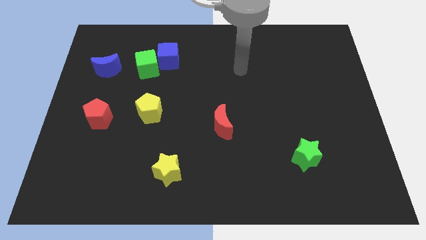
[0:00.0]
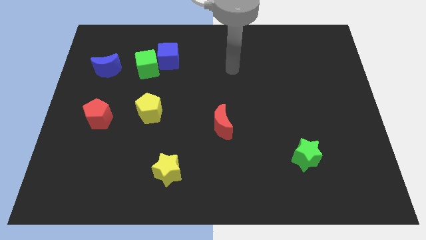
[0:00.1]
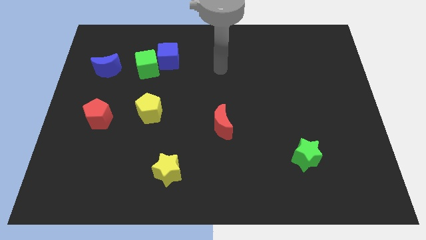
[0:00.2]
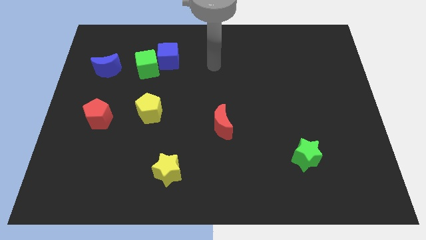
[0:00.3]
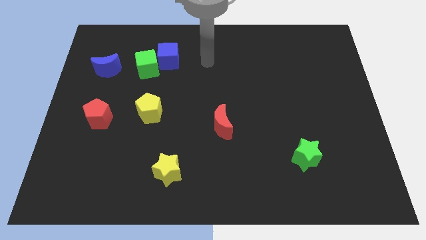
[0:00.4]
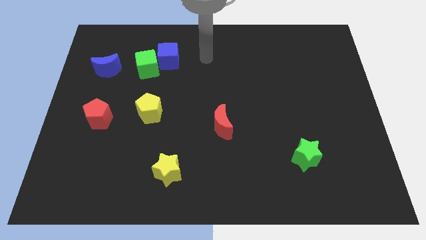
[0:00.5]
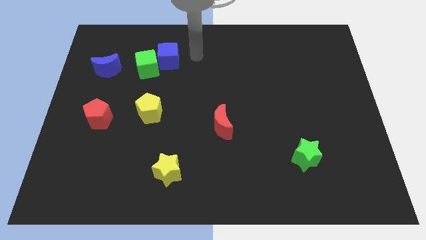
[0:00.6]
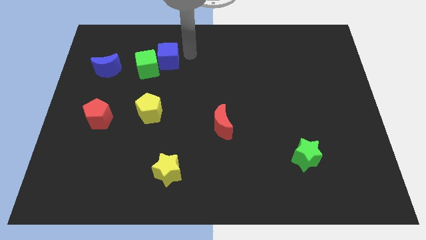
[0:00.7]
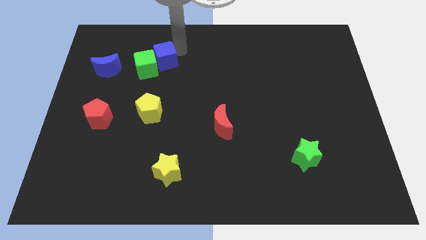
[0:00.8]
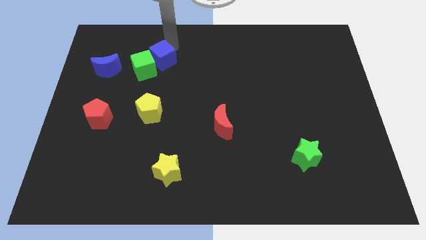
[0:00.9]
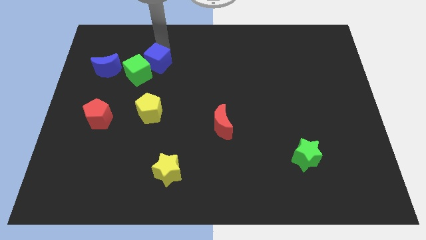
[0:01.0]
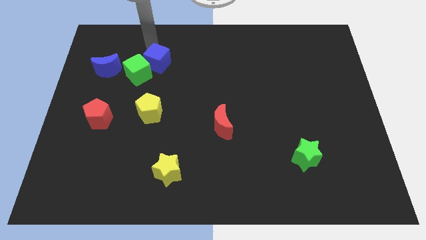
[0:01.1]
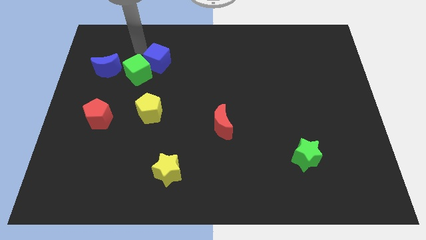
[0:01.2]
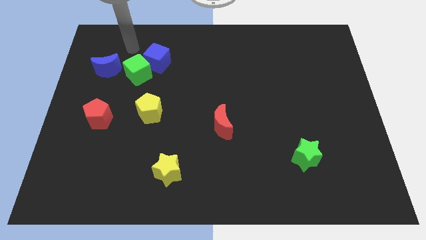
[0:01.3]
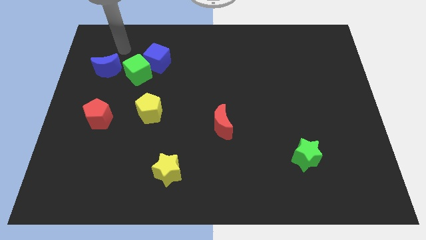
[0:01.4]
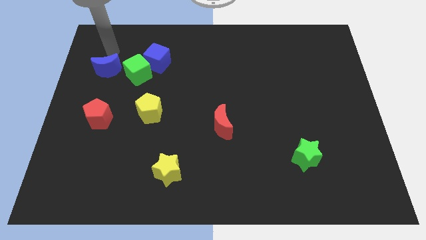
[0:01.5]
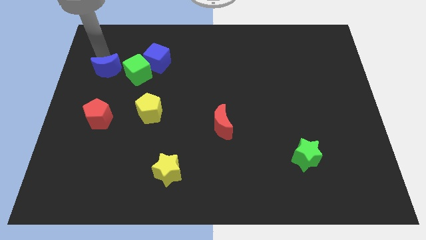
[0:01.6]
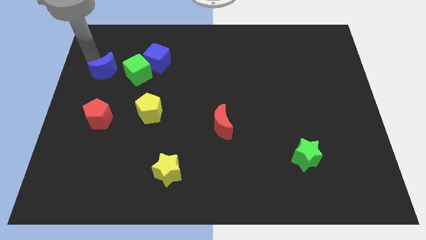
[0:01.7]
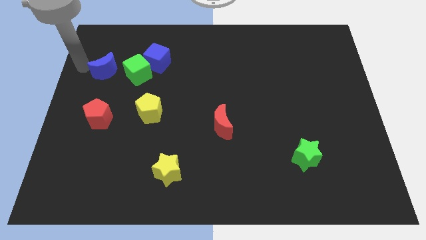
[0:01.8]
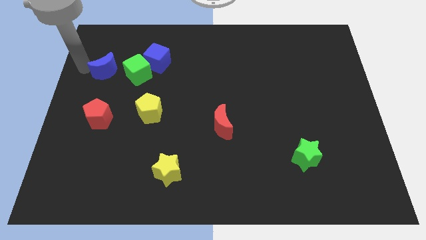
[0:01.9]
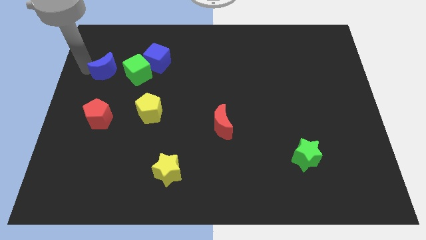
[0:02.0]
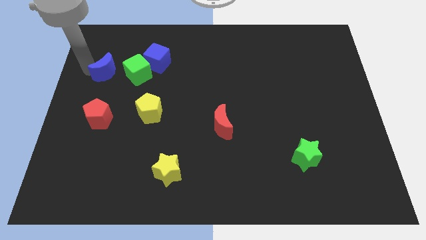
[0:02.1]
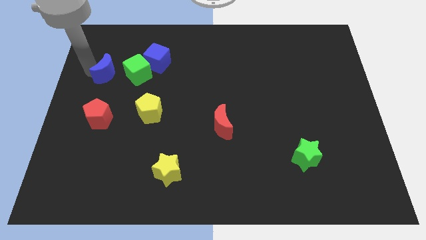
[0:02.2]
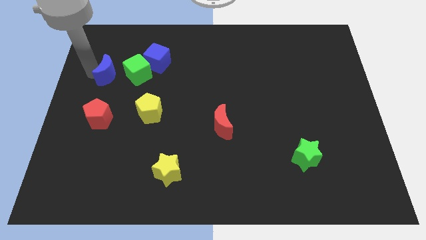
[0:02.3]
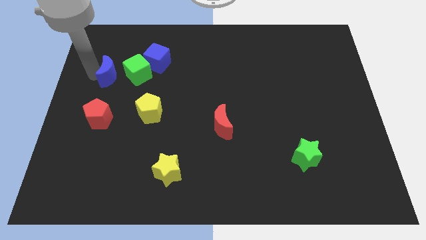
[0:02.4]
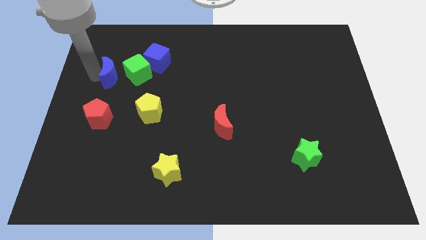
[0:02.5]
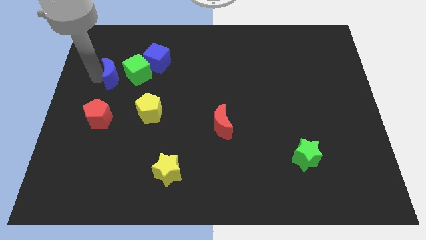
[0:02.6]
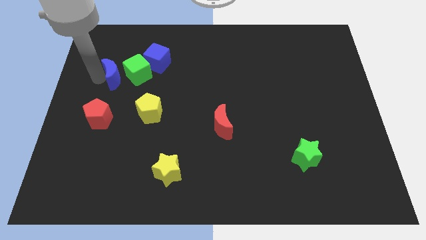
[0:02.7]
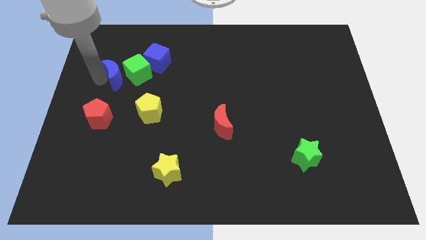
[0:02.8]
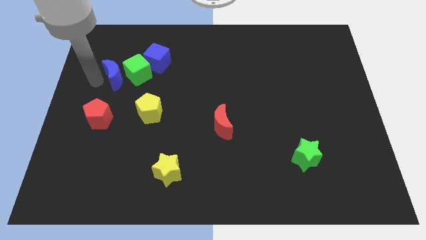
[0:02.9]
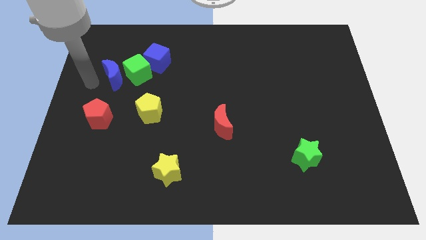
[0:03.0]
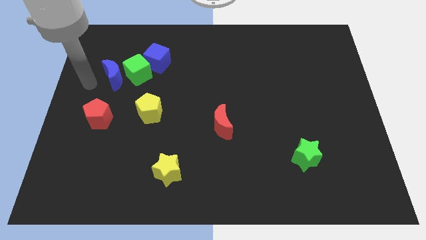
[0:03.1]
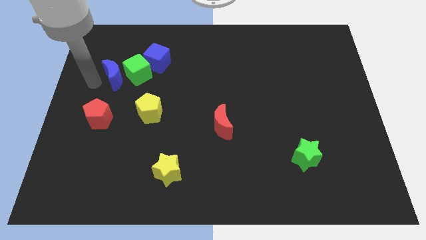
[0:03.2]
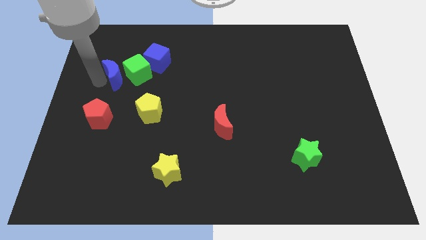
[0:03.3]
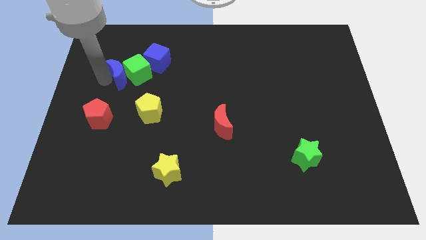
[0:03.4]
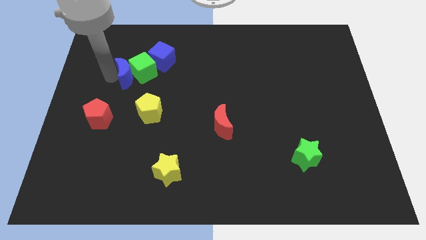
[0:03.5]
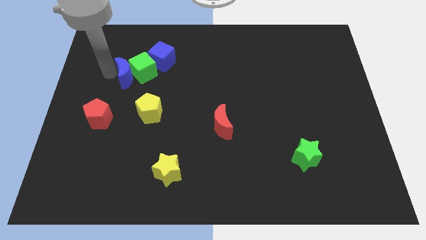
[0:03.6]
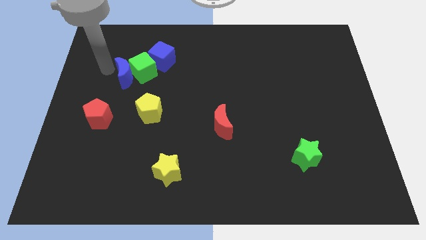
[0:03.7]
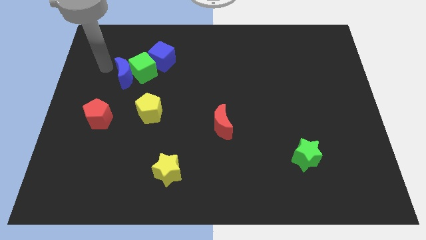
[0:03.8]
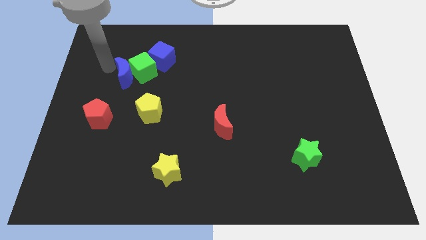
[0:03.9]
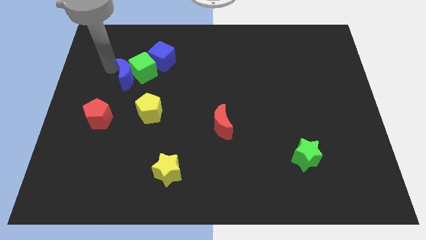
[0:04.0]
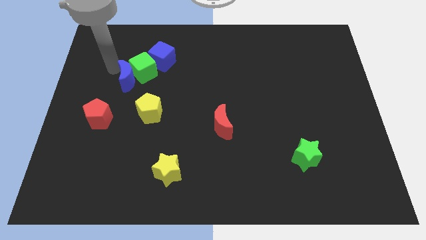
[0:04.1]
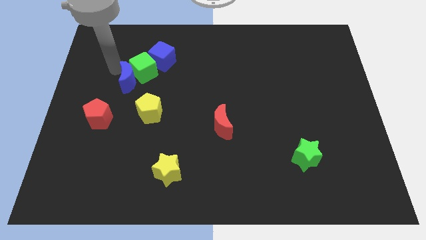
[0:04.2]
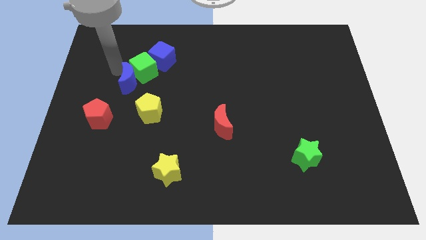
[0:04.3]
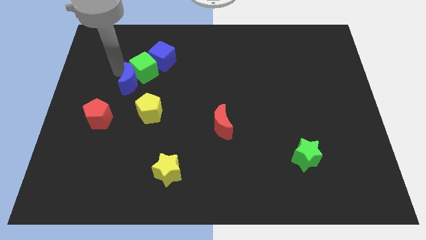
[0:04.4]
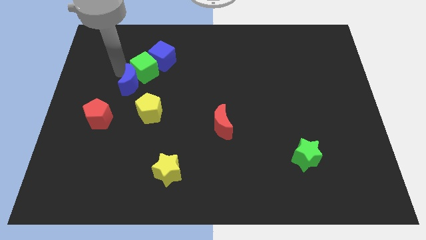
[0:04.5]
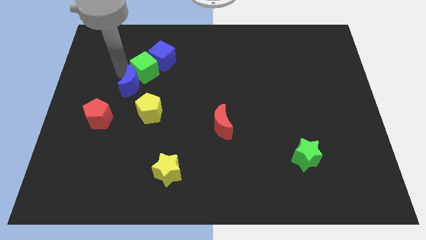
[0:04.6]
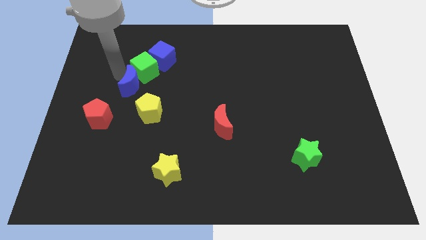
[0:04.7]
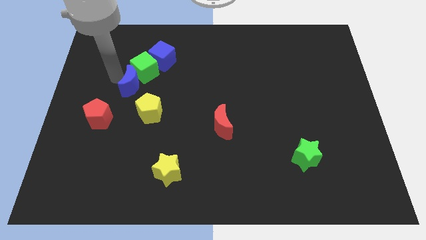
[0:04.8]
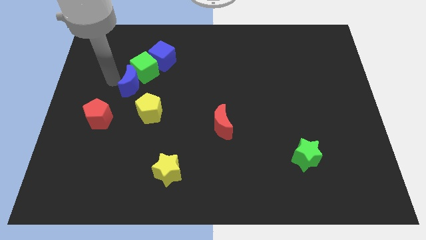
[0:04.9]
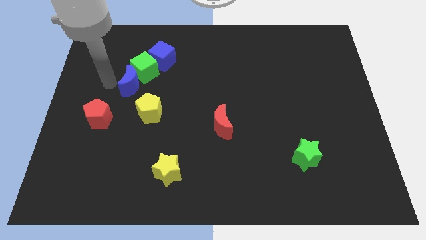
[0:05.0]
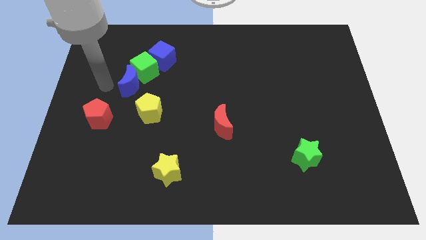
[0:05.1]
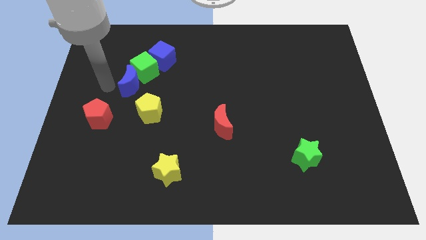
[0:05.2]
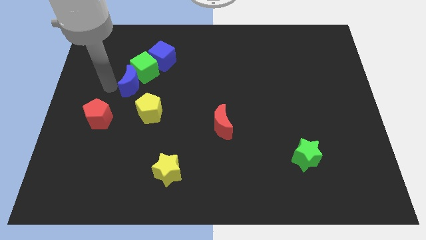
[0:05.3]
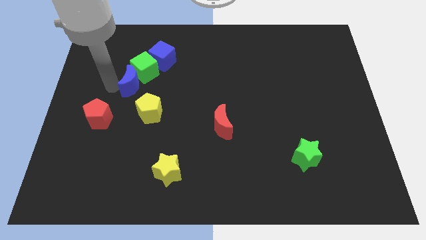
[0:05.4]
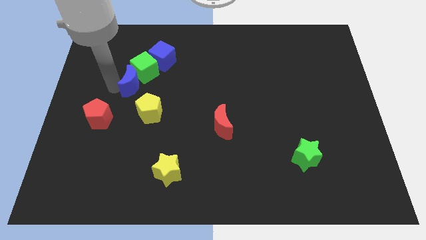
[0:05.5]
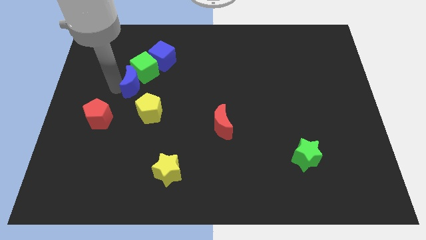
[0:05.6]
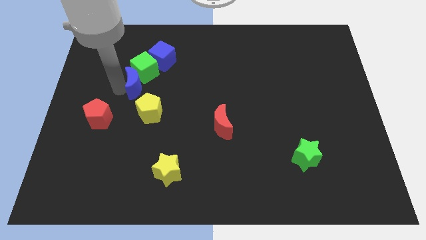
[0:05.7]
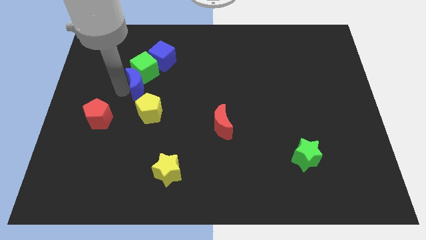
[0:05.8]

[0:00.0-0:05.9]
slightly move the blue moon to the right

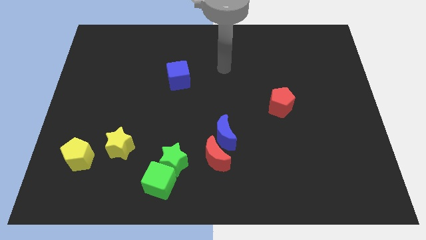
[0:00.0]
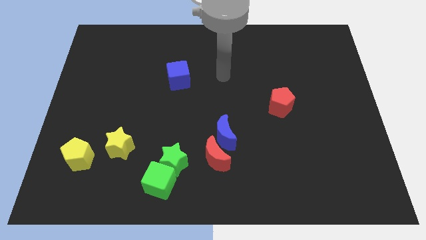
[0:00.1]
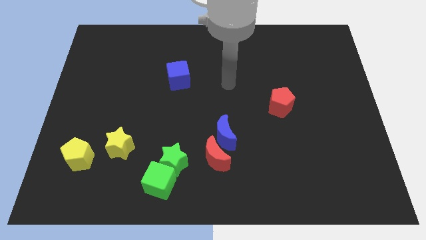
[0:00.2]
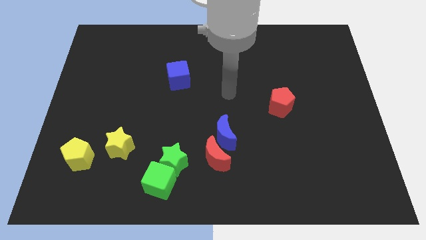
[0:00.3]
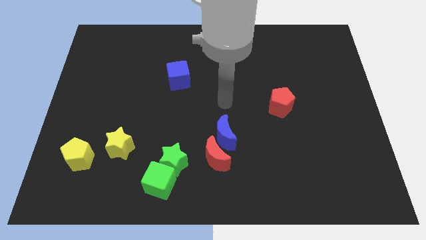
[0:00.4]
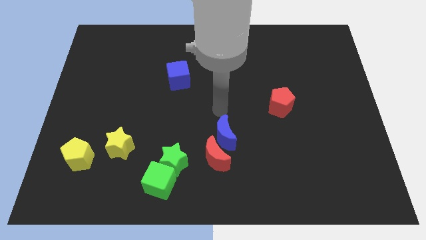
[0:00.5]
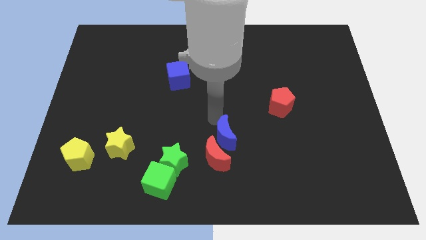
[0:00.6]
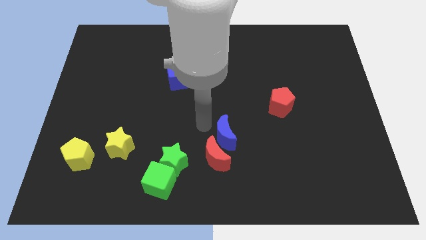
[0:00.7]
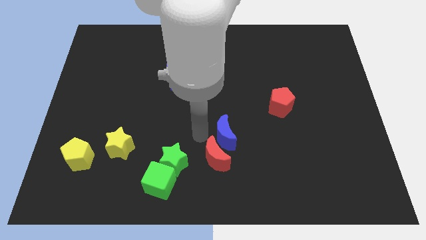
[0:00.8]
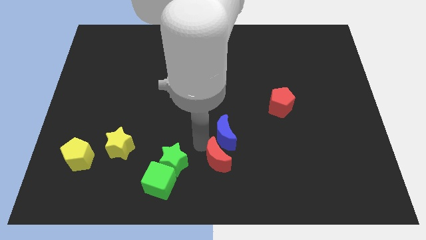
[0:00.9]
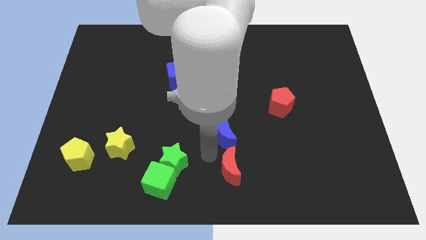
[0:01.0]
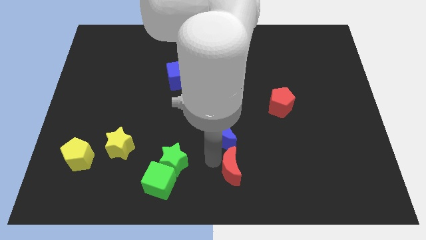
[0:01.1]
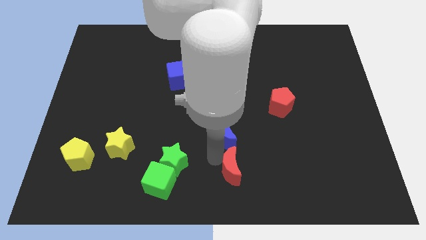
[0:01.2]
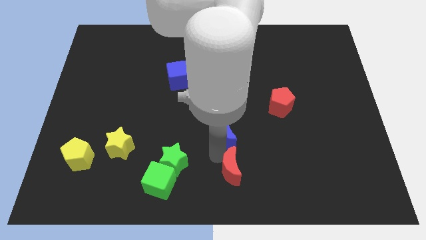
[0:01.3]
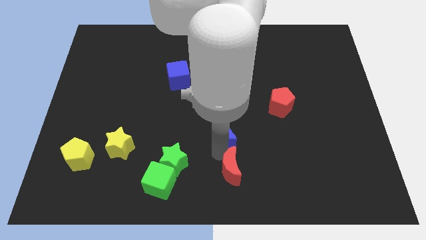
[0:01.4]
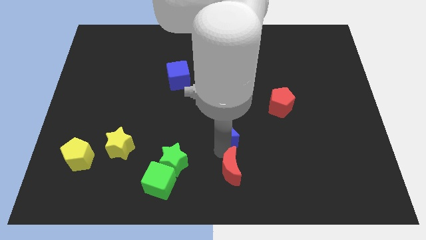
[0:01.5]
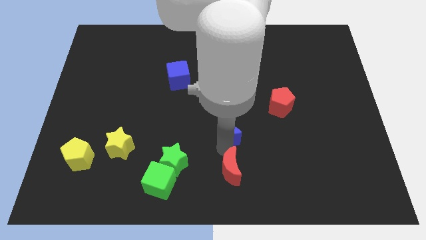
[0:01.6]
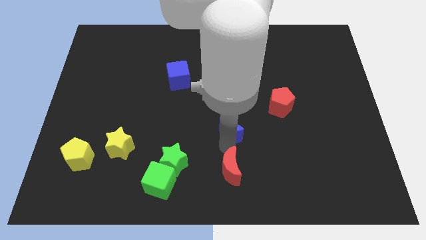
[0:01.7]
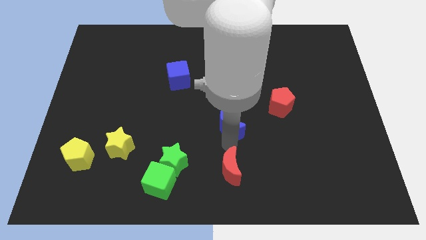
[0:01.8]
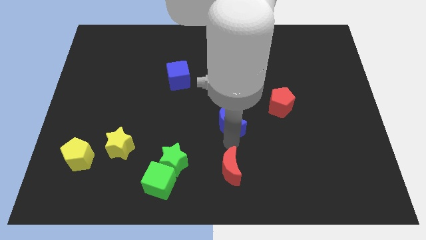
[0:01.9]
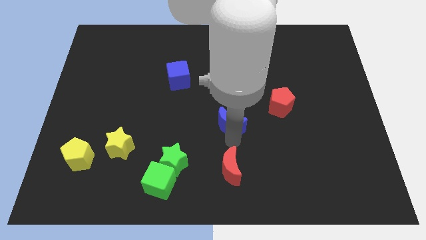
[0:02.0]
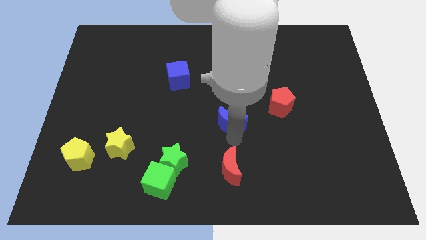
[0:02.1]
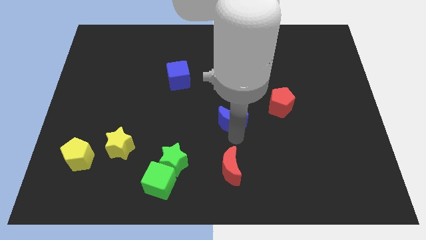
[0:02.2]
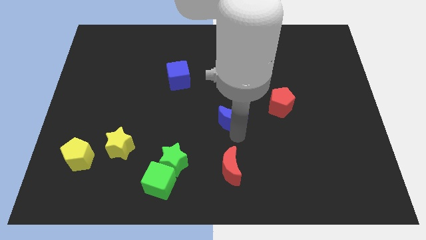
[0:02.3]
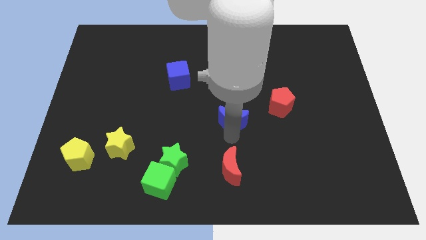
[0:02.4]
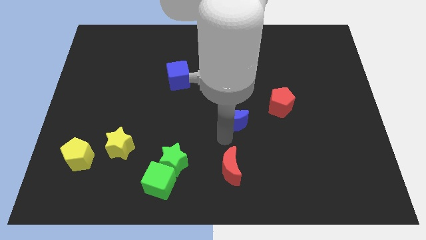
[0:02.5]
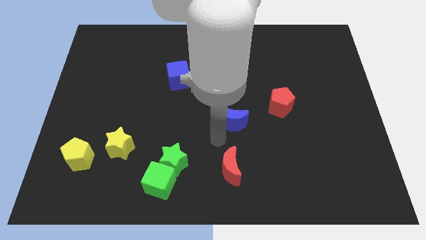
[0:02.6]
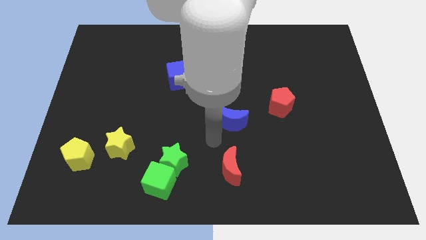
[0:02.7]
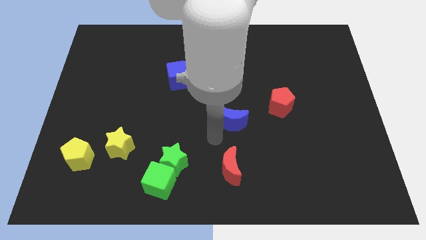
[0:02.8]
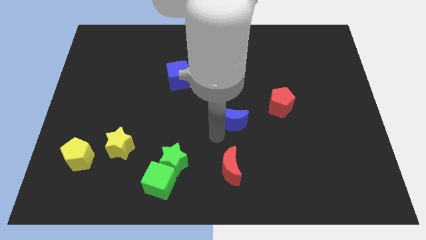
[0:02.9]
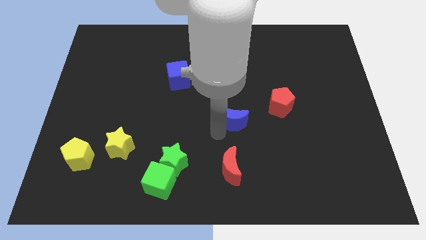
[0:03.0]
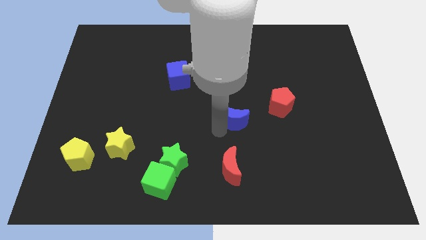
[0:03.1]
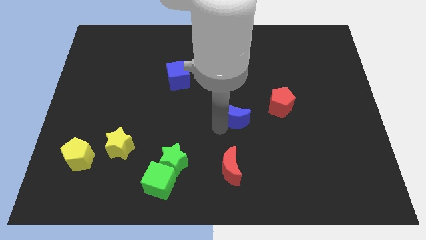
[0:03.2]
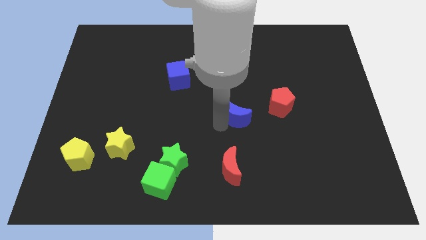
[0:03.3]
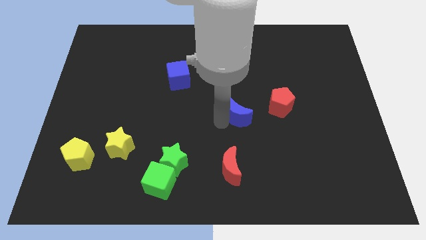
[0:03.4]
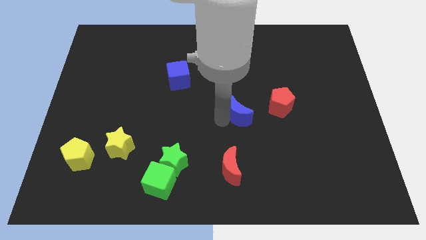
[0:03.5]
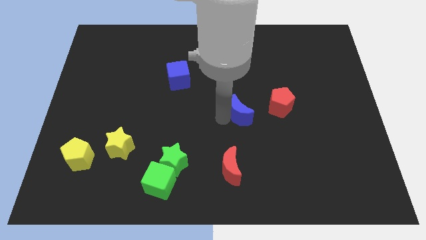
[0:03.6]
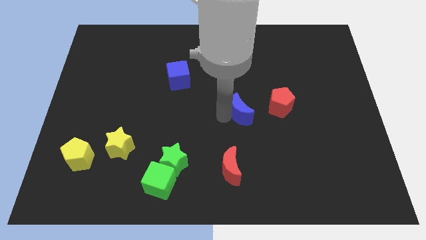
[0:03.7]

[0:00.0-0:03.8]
move the blue moon a bit up and right
